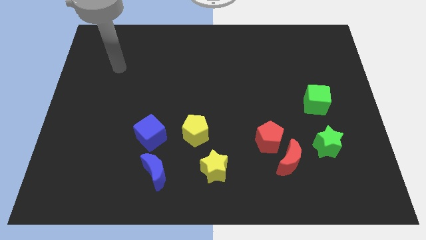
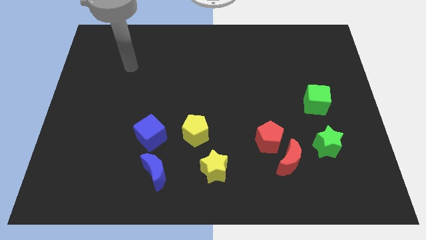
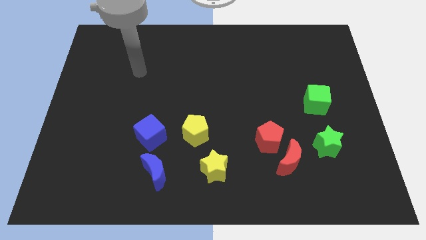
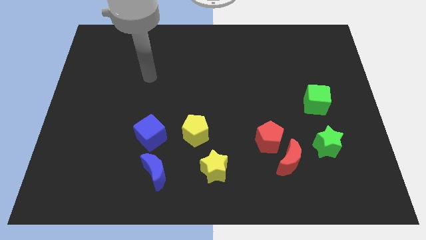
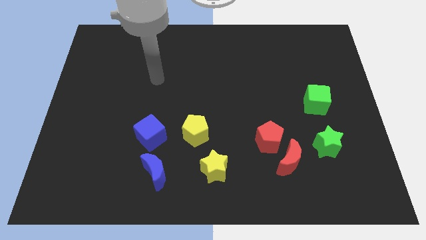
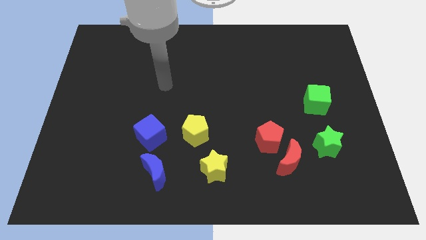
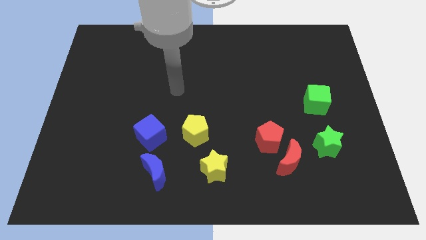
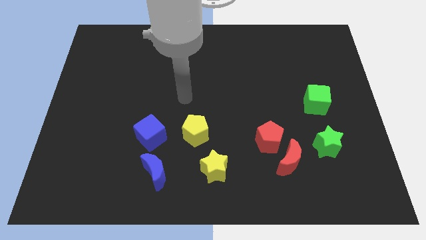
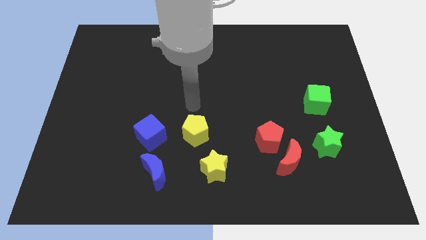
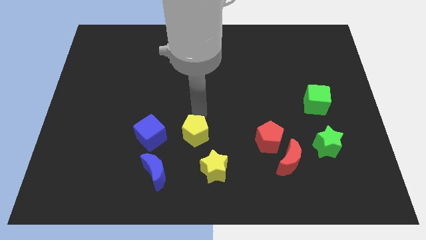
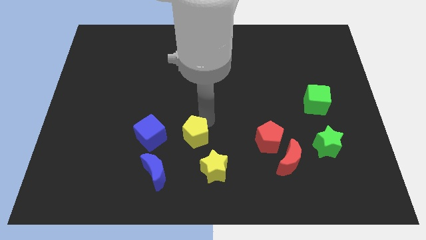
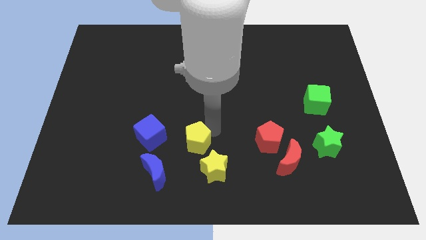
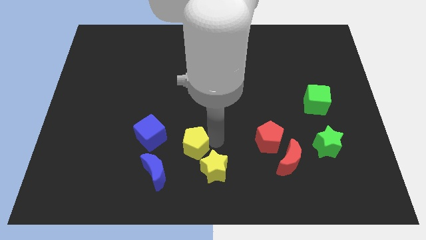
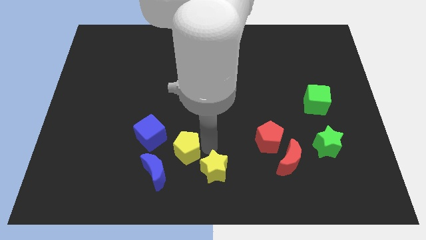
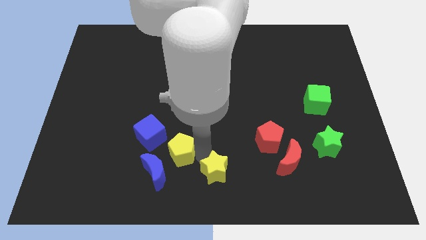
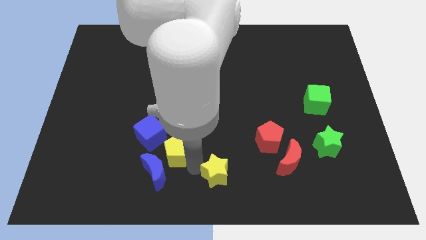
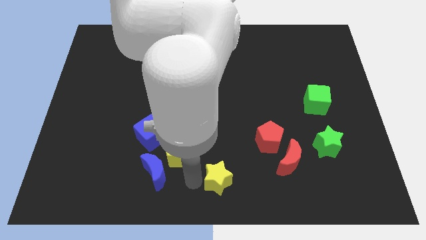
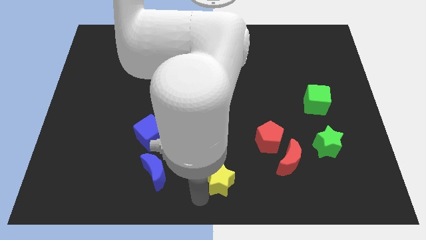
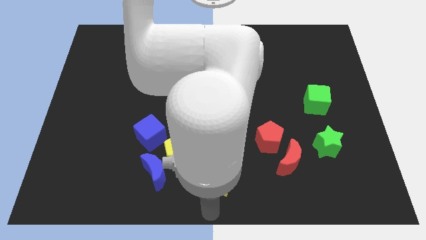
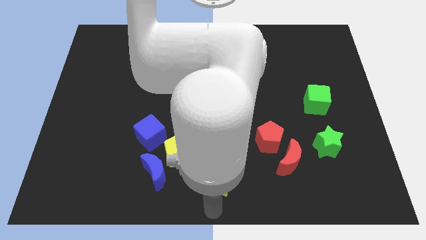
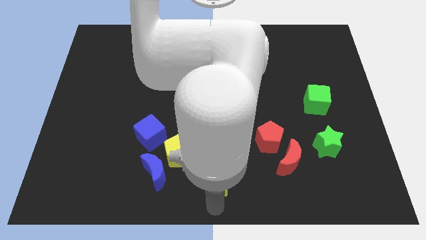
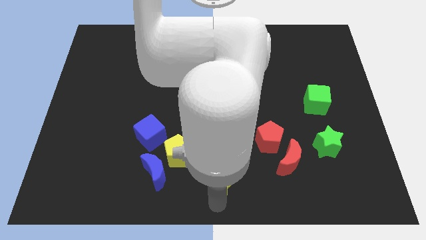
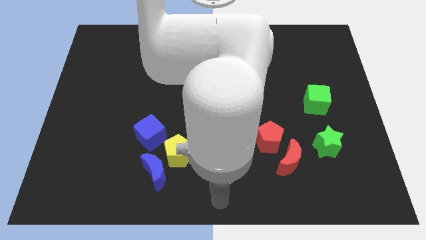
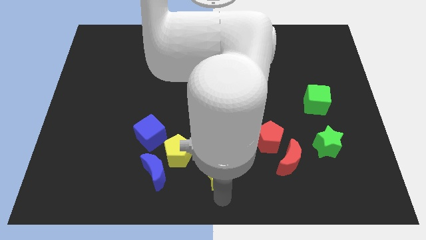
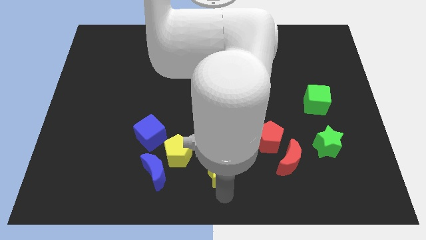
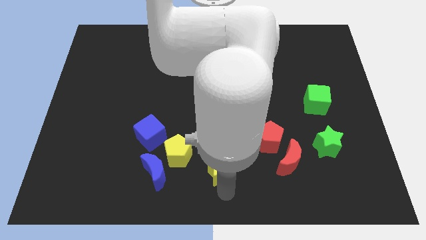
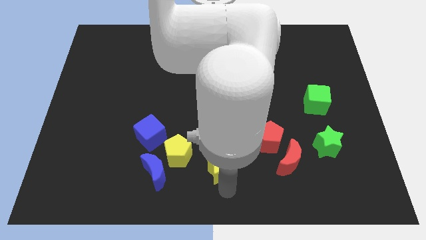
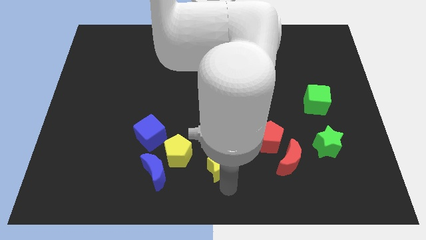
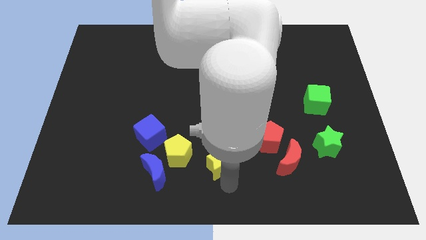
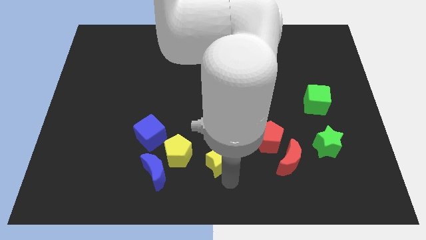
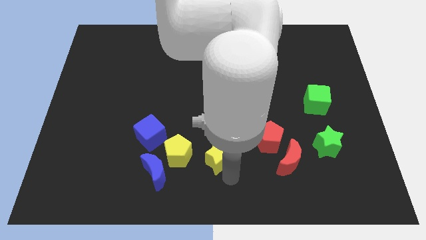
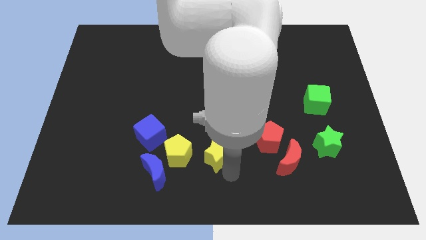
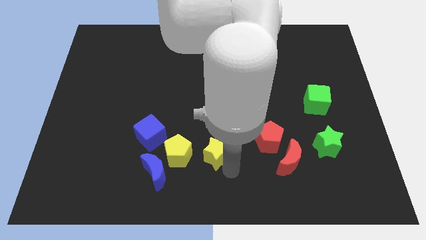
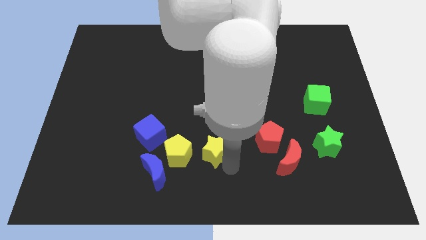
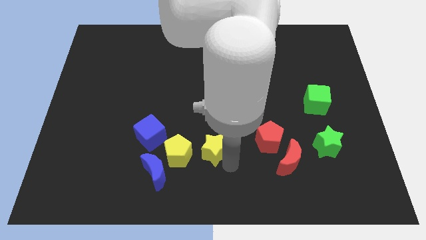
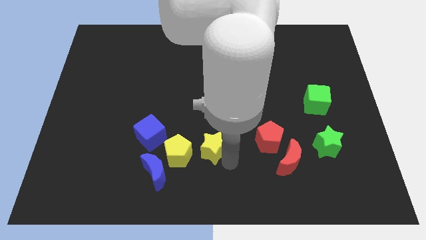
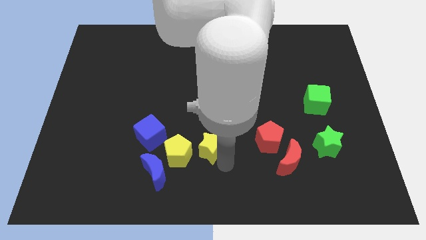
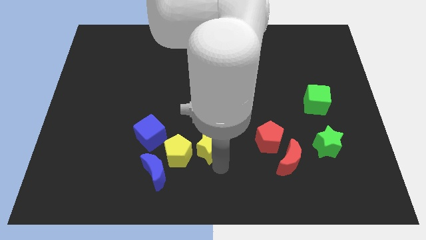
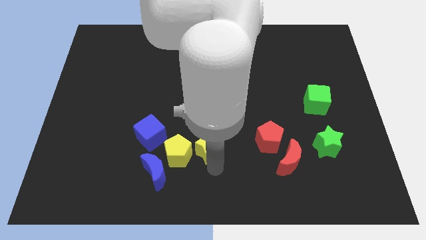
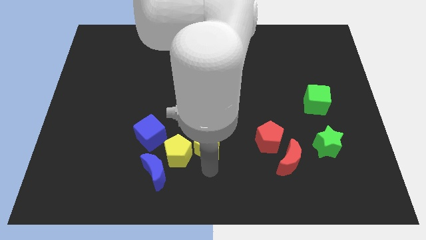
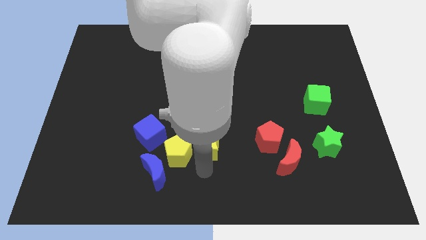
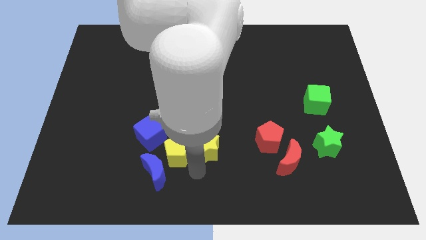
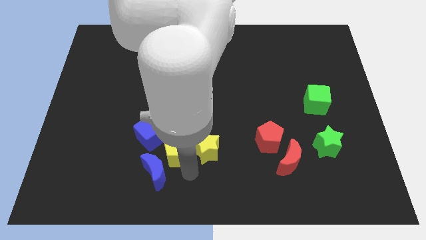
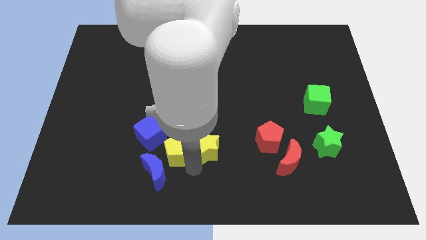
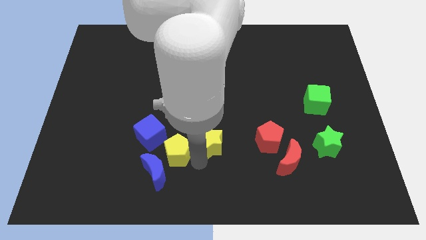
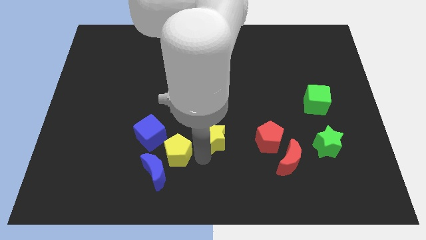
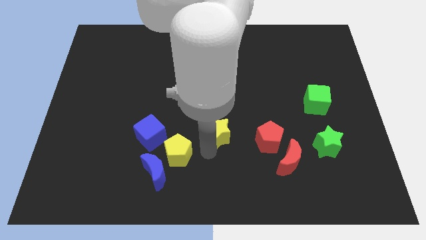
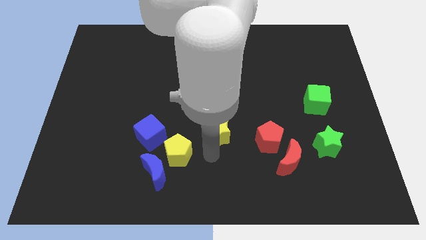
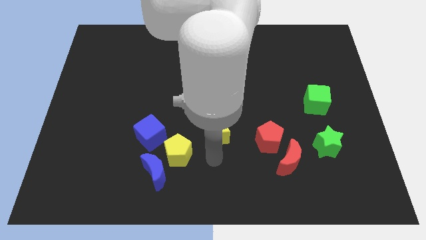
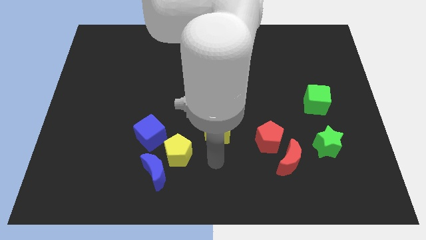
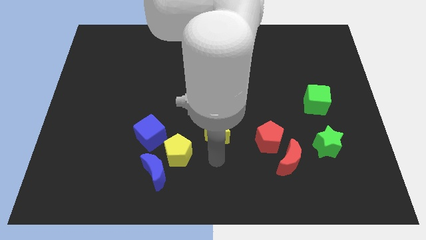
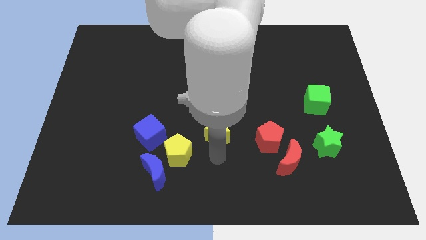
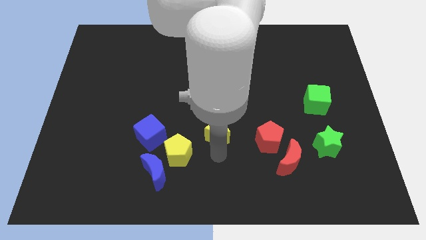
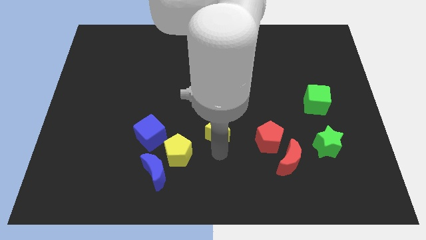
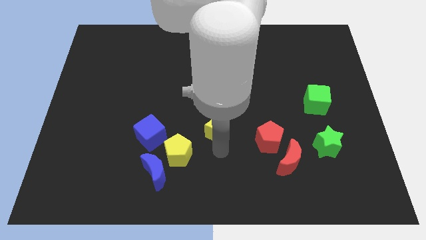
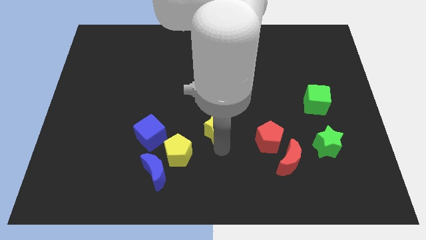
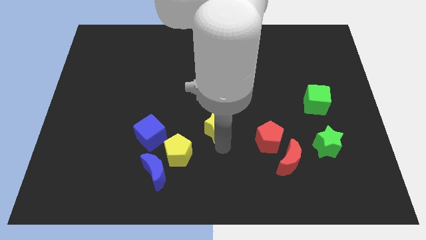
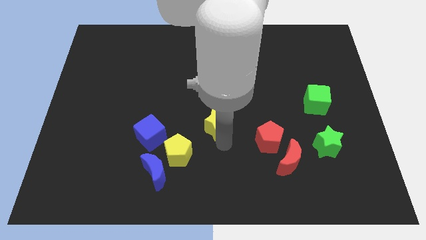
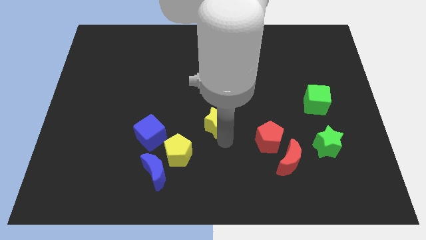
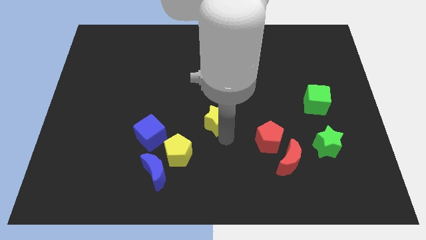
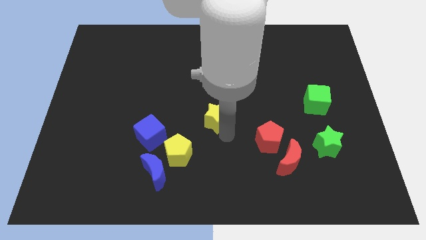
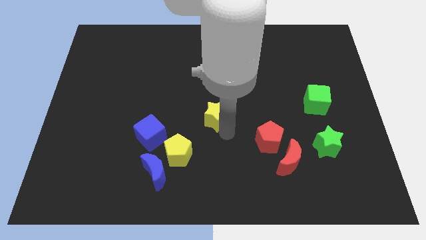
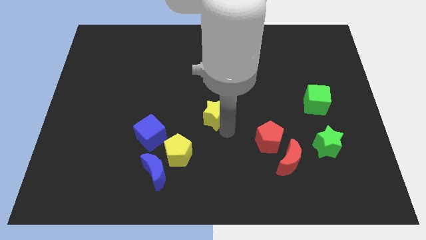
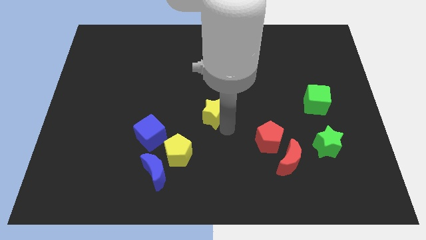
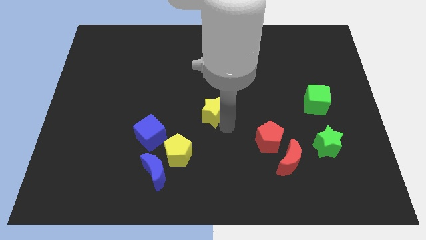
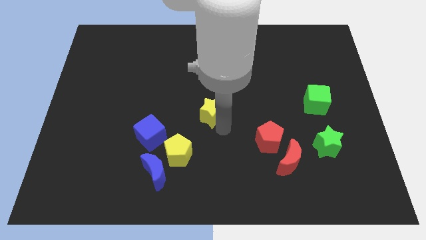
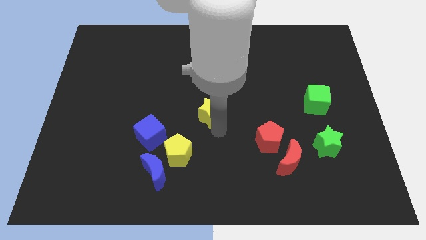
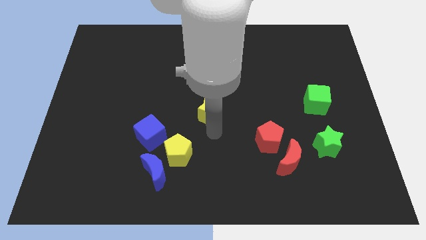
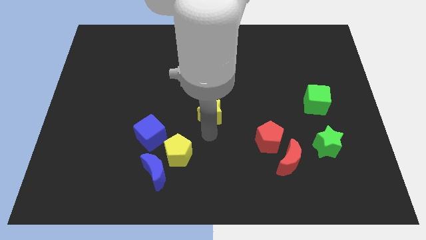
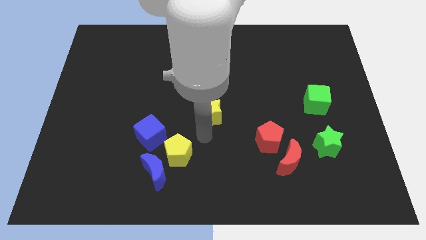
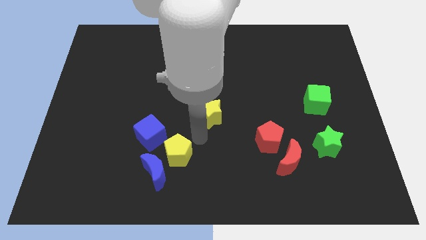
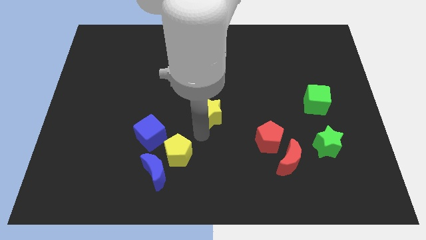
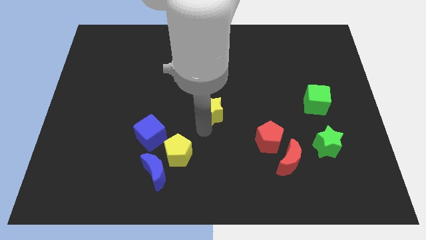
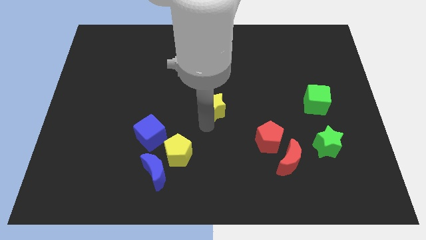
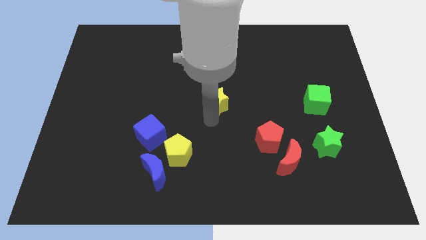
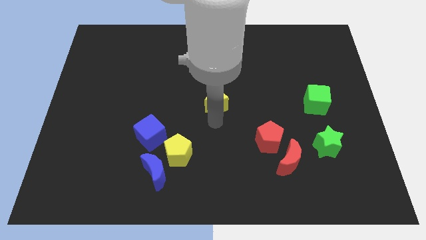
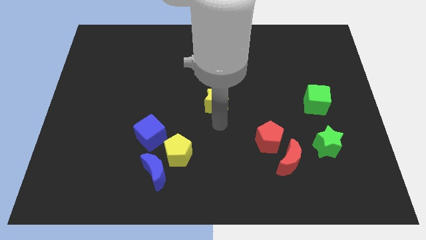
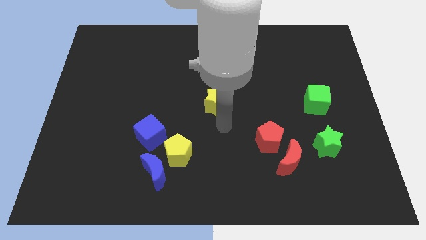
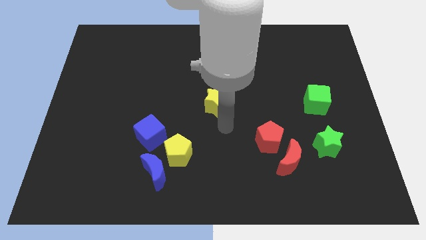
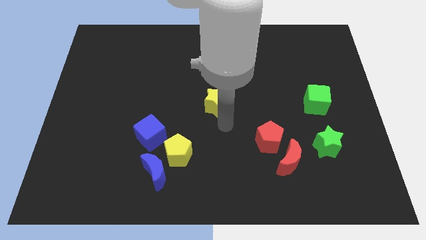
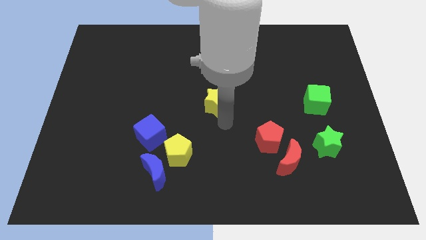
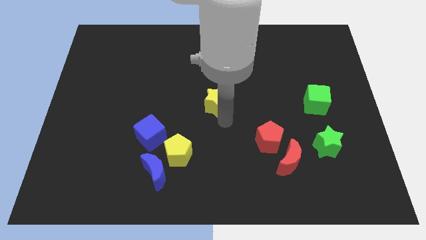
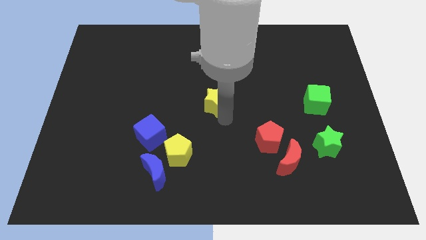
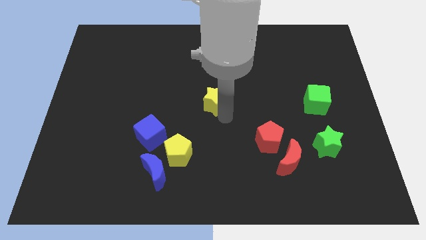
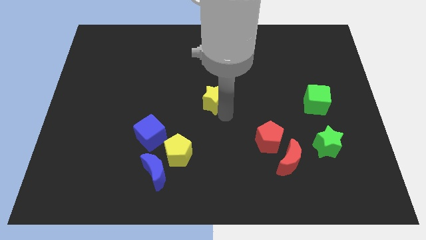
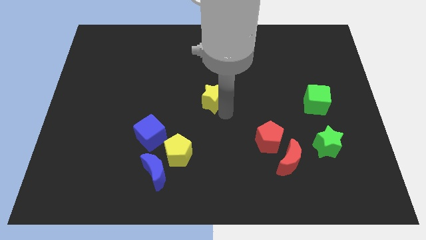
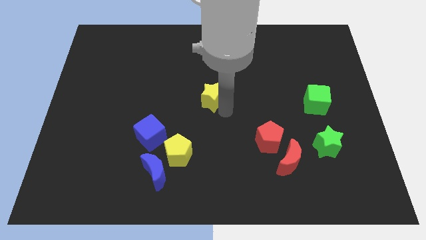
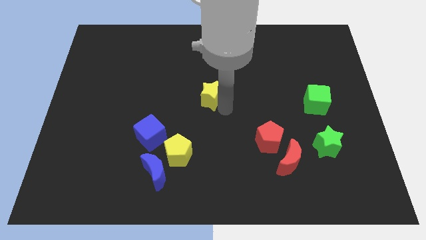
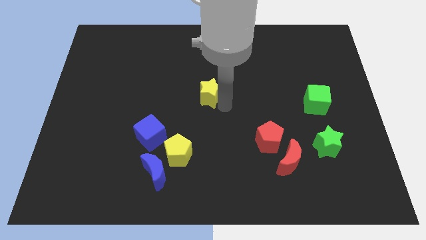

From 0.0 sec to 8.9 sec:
push the yellow star upwards
